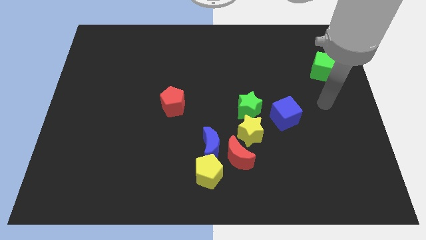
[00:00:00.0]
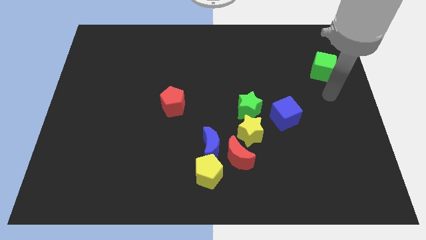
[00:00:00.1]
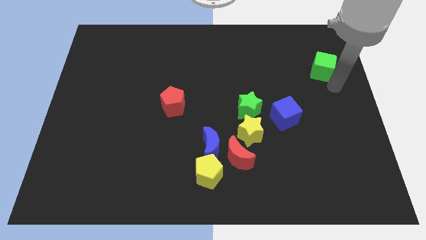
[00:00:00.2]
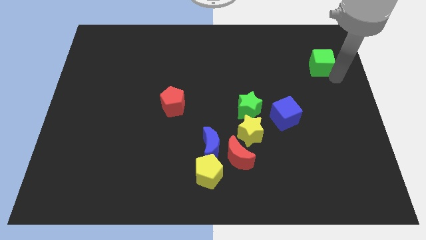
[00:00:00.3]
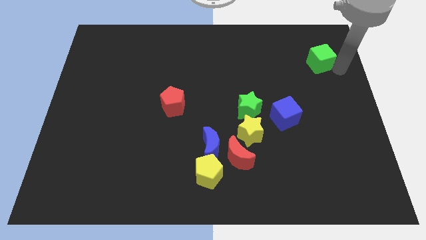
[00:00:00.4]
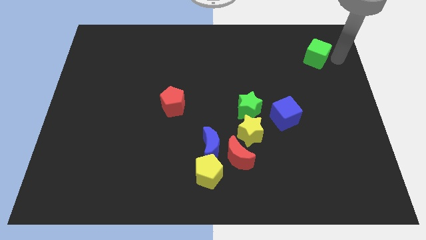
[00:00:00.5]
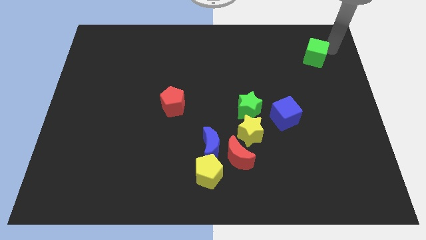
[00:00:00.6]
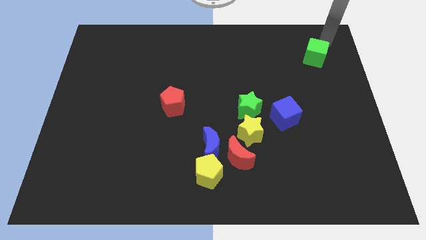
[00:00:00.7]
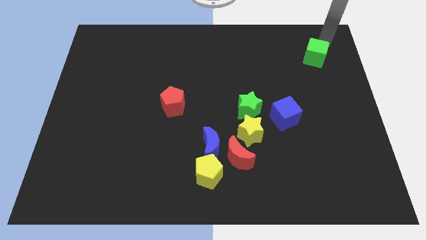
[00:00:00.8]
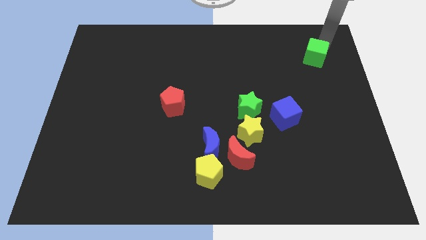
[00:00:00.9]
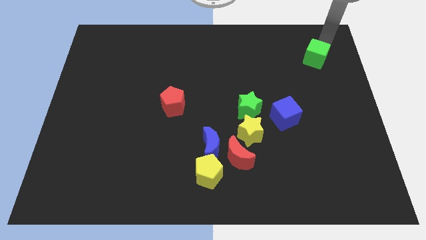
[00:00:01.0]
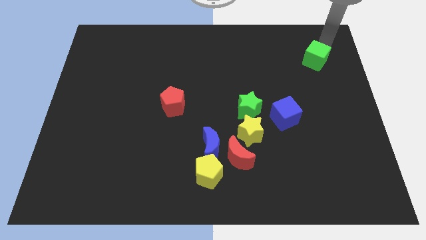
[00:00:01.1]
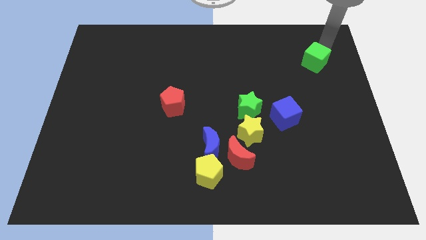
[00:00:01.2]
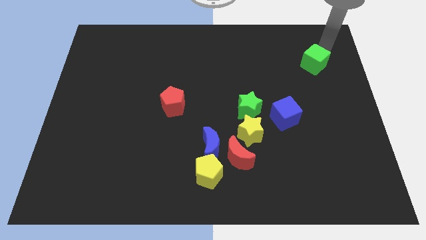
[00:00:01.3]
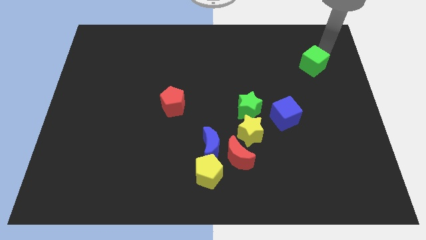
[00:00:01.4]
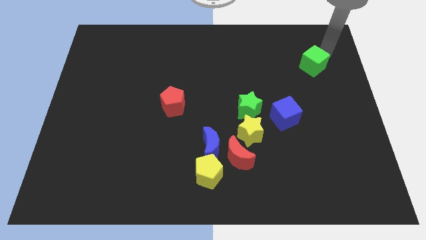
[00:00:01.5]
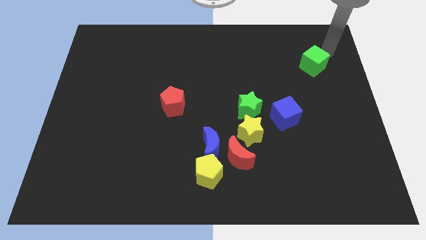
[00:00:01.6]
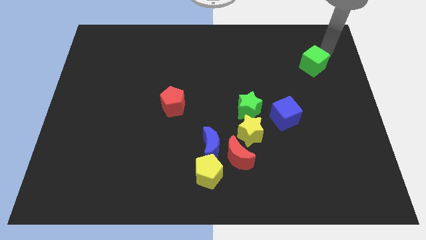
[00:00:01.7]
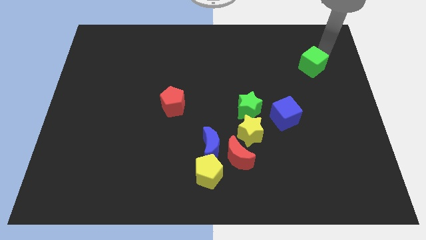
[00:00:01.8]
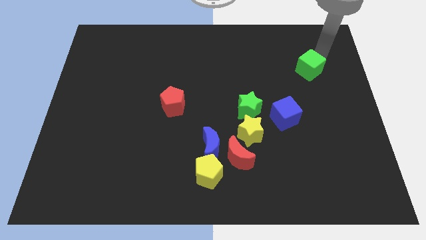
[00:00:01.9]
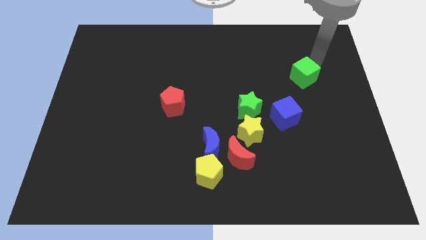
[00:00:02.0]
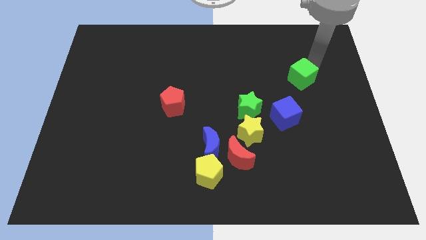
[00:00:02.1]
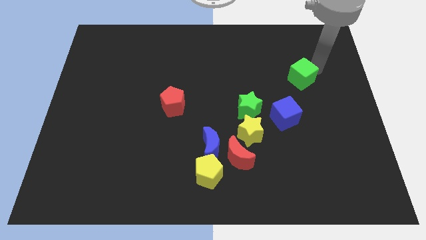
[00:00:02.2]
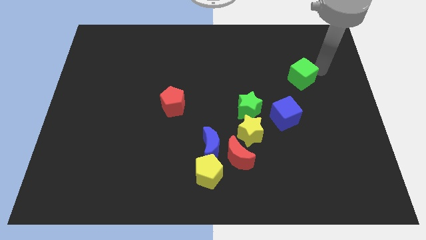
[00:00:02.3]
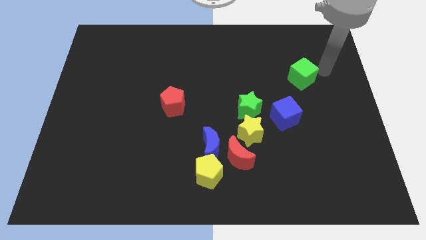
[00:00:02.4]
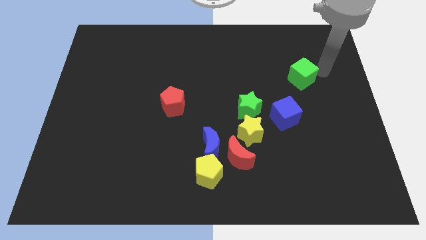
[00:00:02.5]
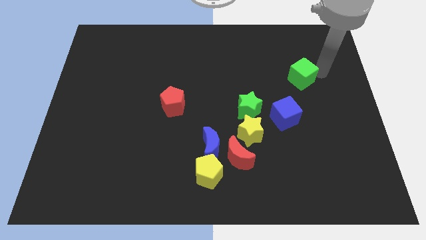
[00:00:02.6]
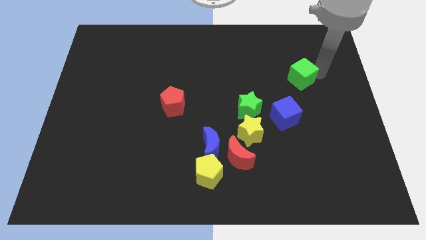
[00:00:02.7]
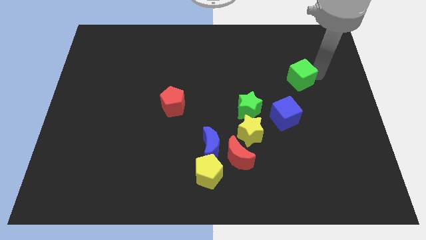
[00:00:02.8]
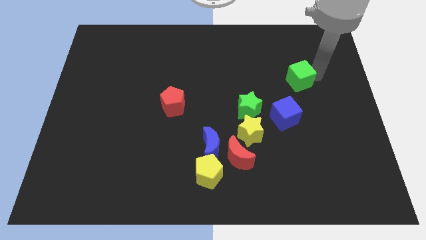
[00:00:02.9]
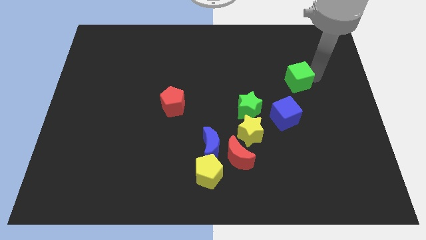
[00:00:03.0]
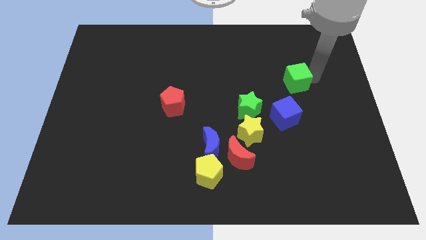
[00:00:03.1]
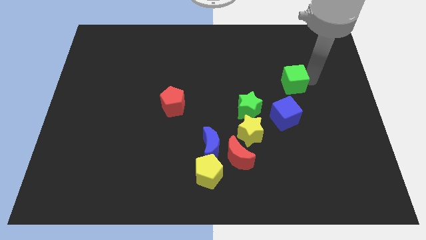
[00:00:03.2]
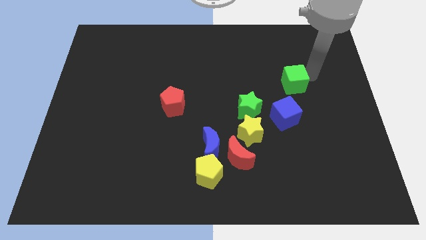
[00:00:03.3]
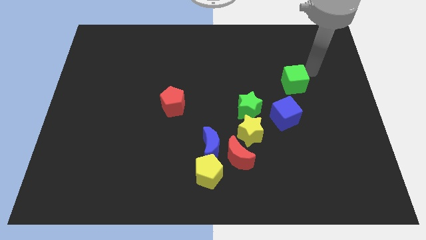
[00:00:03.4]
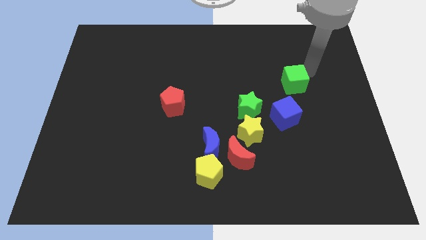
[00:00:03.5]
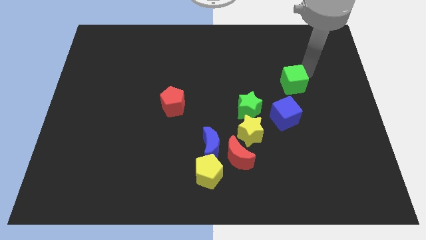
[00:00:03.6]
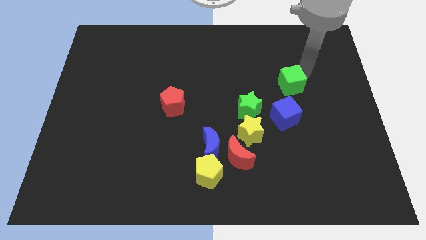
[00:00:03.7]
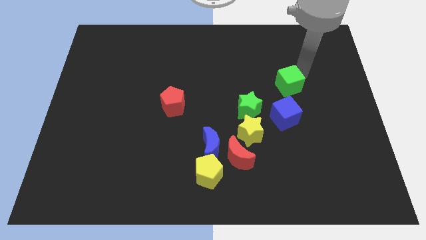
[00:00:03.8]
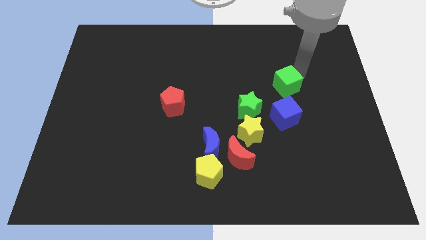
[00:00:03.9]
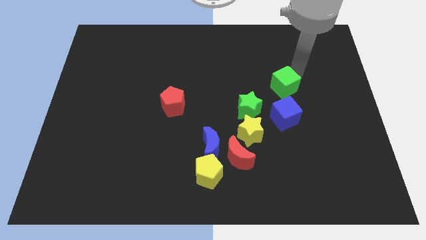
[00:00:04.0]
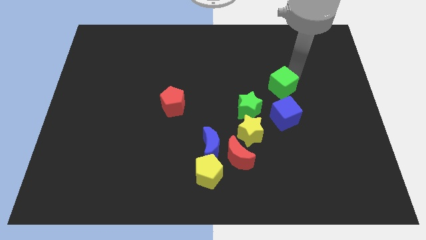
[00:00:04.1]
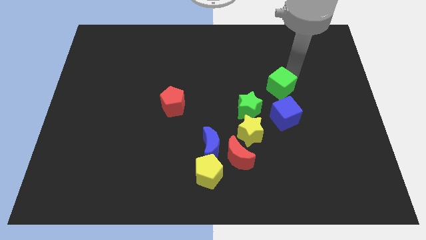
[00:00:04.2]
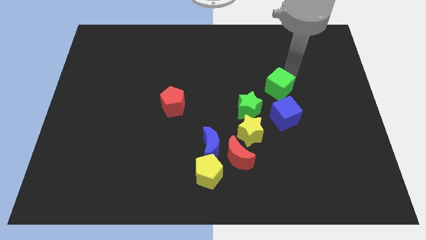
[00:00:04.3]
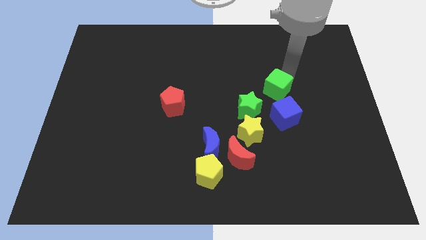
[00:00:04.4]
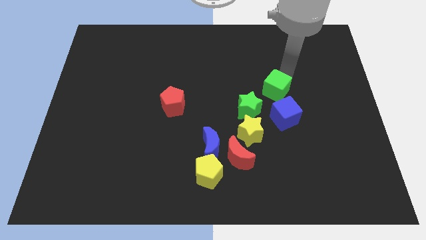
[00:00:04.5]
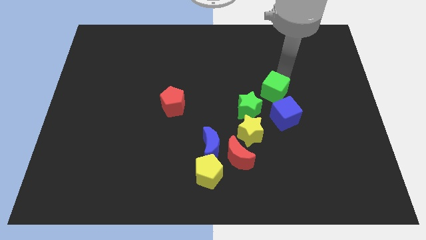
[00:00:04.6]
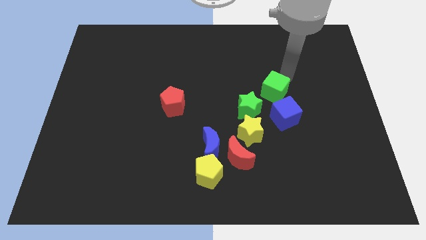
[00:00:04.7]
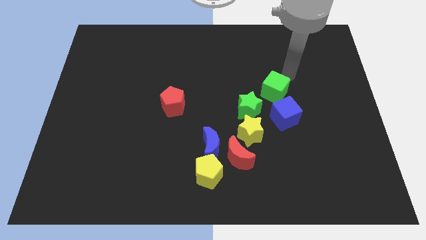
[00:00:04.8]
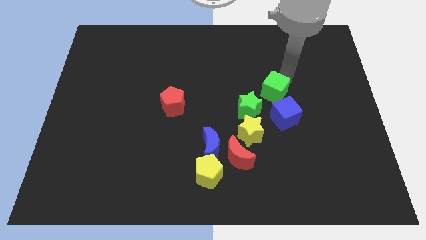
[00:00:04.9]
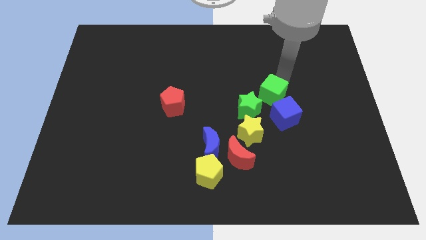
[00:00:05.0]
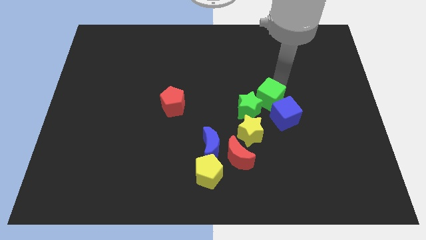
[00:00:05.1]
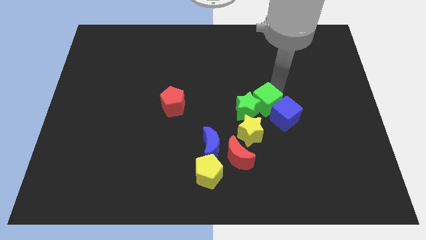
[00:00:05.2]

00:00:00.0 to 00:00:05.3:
move the green cube close to the green star

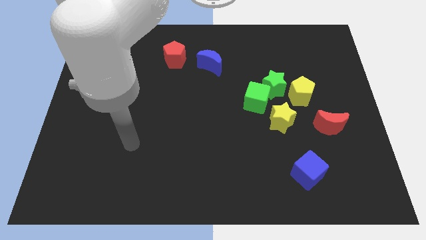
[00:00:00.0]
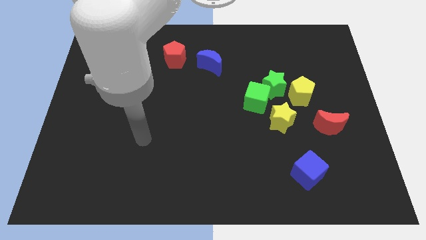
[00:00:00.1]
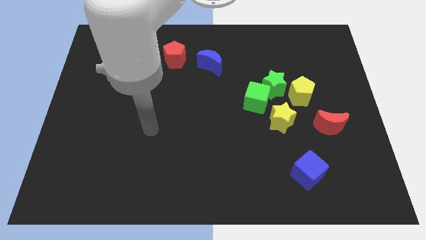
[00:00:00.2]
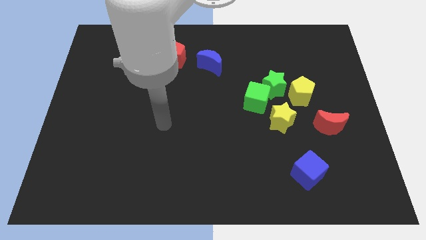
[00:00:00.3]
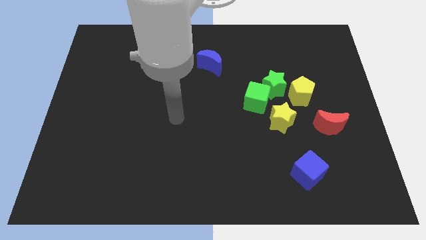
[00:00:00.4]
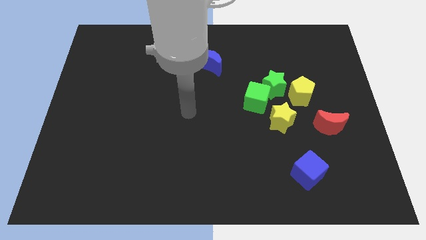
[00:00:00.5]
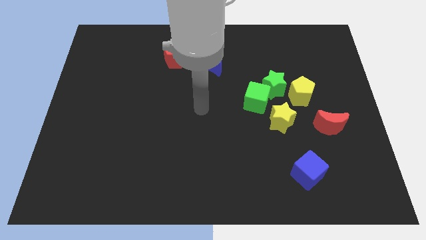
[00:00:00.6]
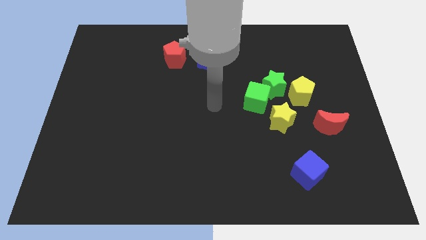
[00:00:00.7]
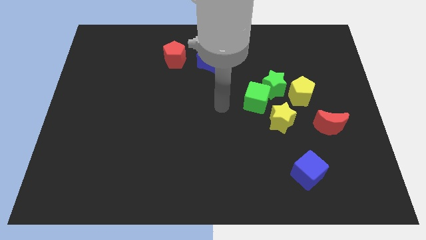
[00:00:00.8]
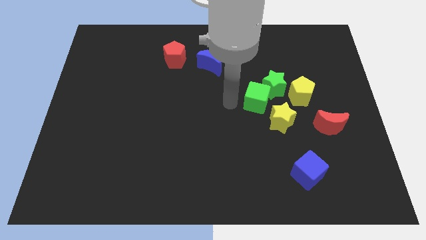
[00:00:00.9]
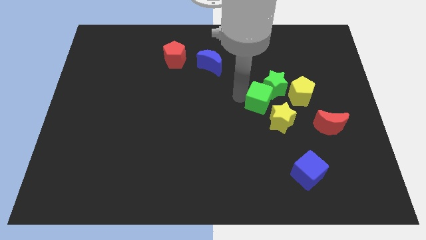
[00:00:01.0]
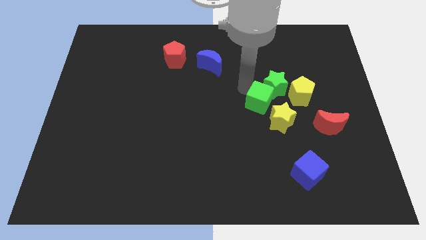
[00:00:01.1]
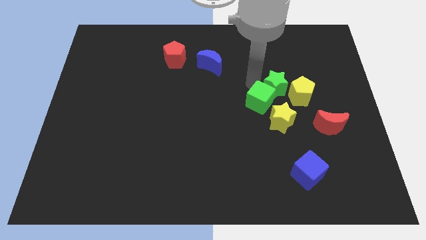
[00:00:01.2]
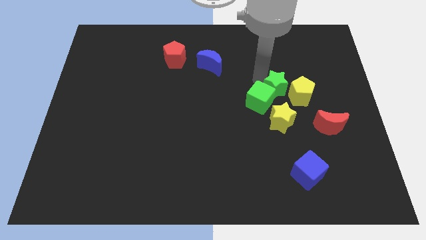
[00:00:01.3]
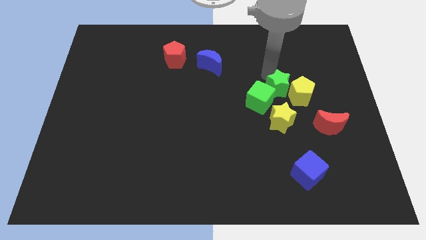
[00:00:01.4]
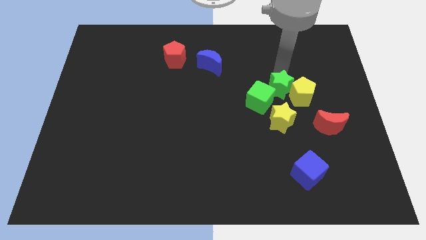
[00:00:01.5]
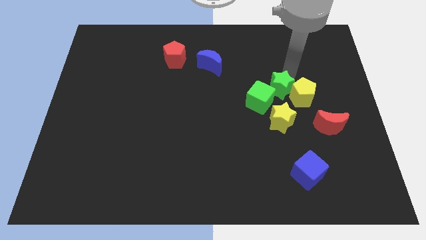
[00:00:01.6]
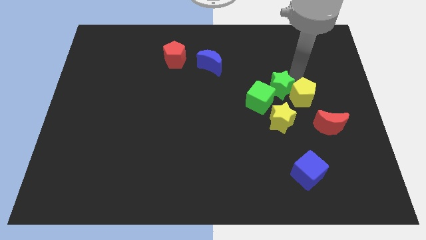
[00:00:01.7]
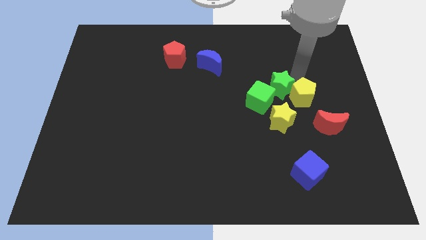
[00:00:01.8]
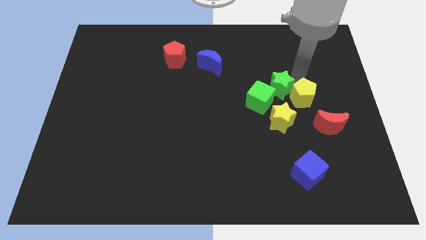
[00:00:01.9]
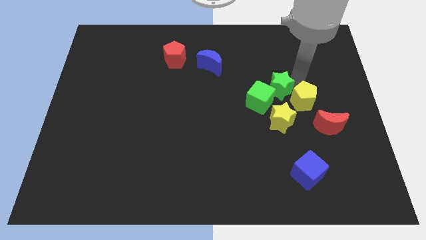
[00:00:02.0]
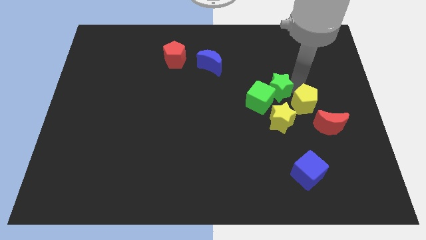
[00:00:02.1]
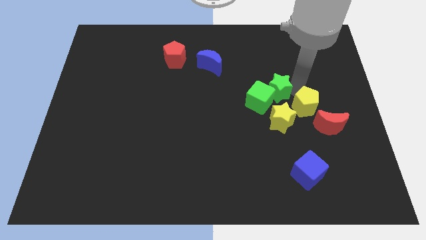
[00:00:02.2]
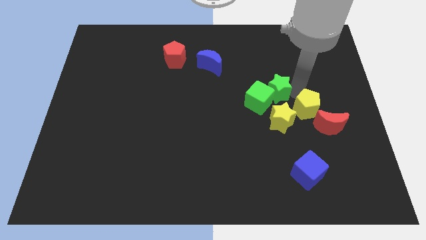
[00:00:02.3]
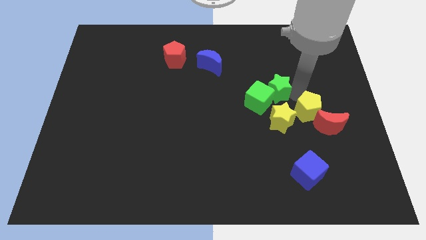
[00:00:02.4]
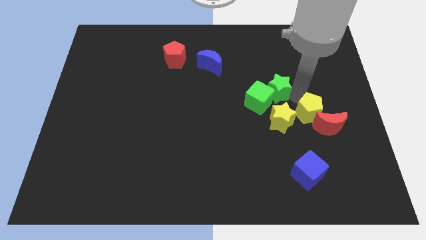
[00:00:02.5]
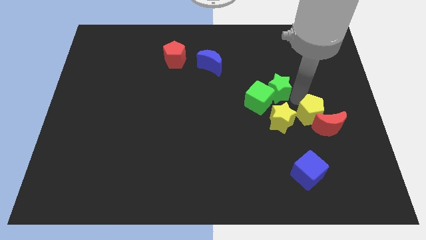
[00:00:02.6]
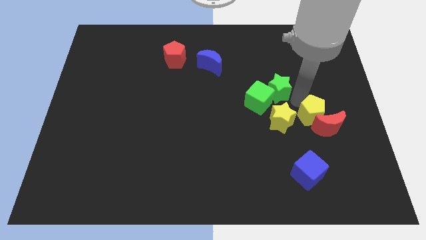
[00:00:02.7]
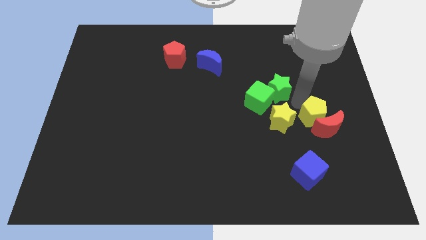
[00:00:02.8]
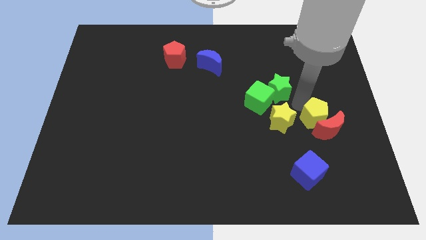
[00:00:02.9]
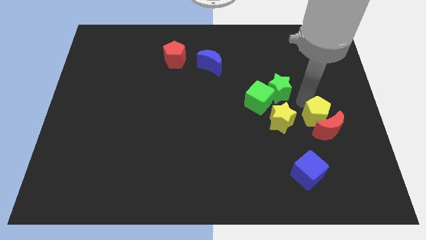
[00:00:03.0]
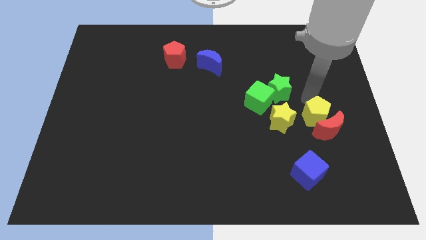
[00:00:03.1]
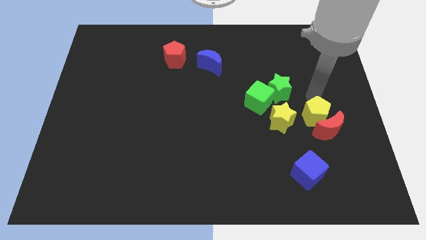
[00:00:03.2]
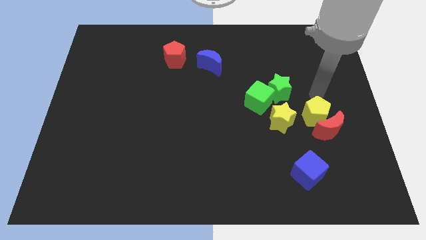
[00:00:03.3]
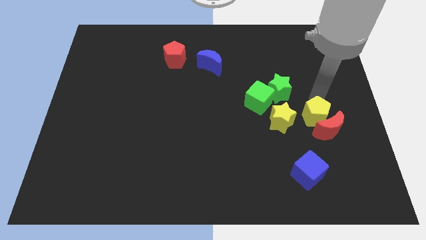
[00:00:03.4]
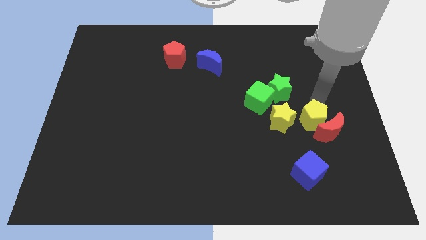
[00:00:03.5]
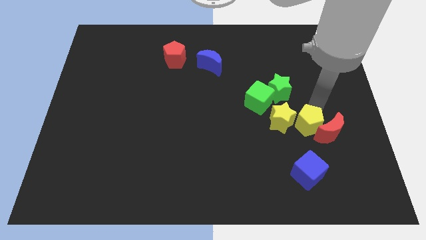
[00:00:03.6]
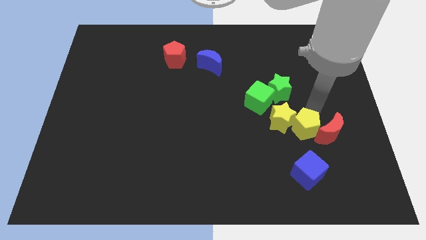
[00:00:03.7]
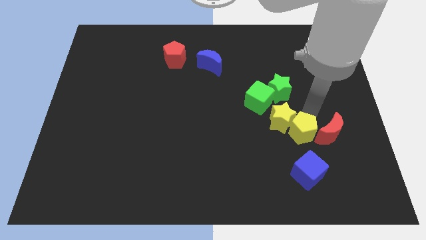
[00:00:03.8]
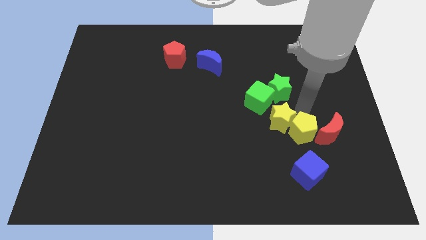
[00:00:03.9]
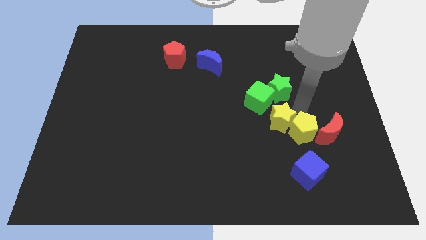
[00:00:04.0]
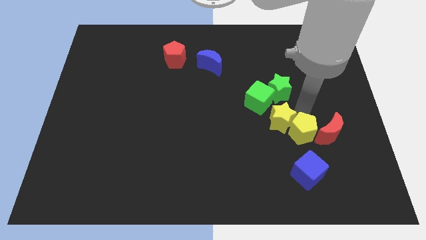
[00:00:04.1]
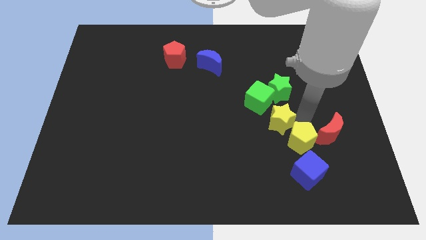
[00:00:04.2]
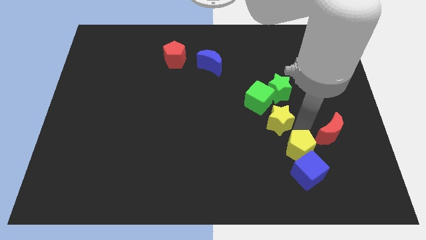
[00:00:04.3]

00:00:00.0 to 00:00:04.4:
move the yellow pentagon to the blue cube
